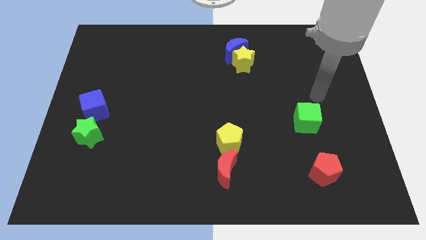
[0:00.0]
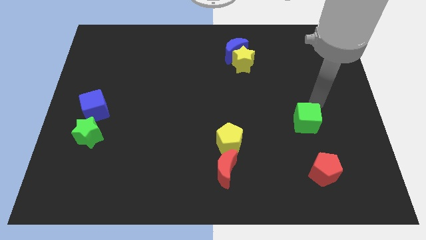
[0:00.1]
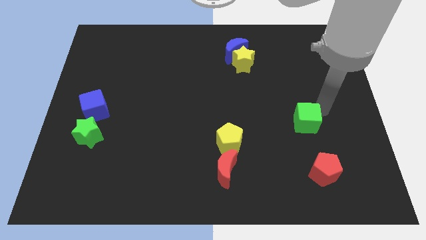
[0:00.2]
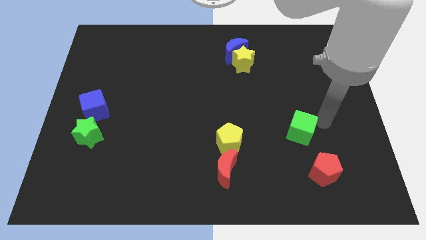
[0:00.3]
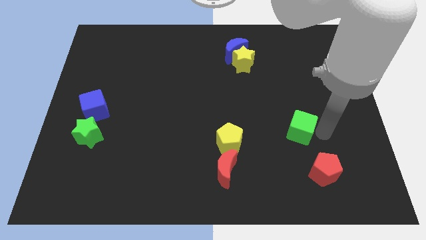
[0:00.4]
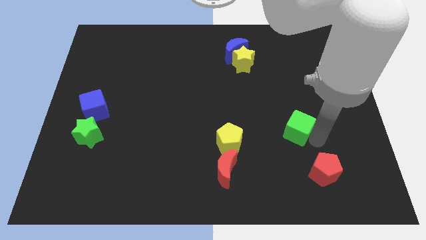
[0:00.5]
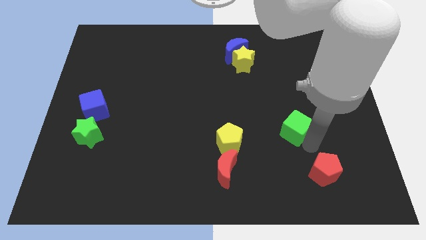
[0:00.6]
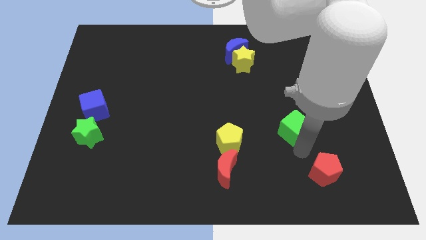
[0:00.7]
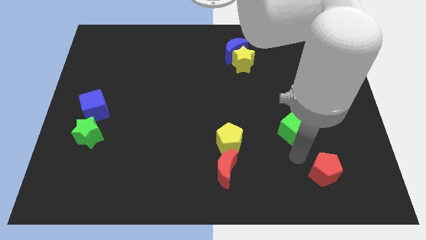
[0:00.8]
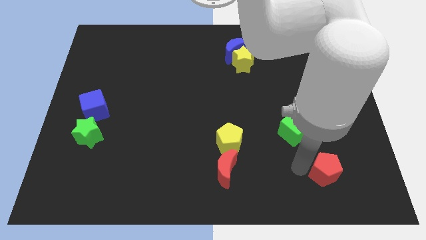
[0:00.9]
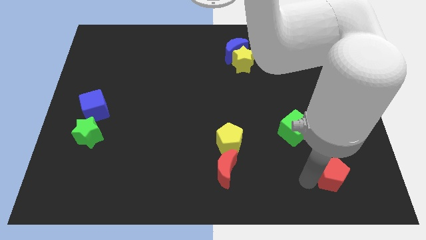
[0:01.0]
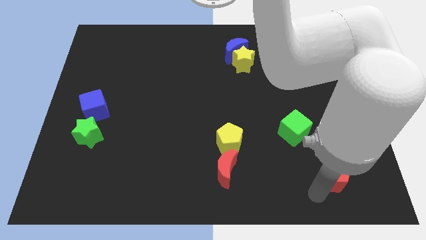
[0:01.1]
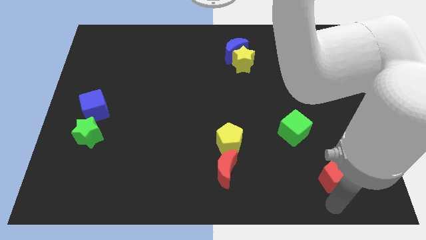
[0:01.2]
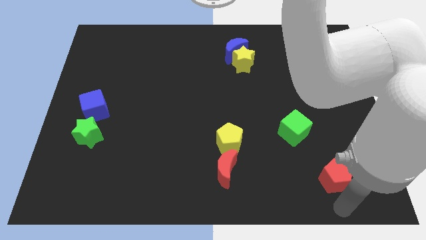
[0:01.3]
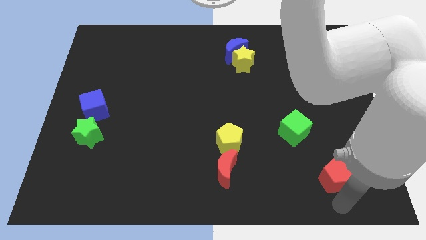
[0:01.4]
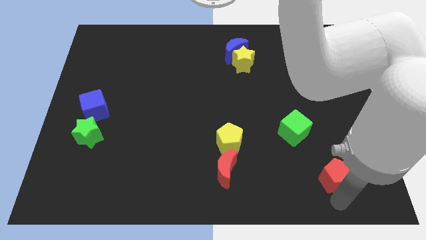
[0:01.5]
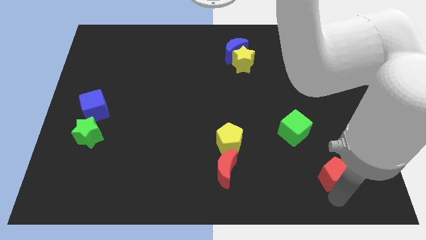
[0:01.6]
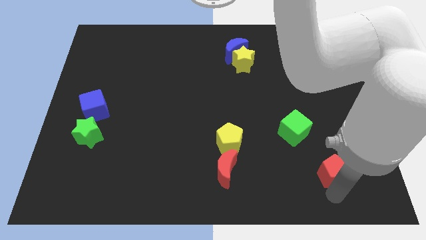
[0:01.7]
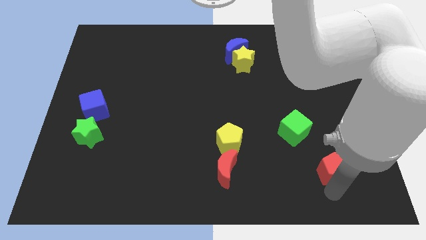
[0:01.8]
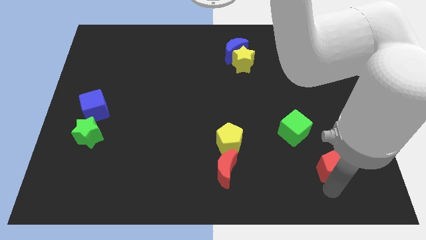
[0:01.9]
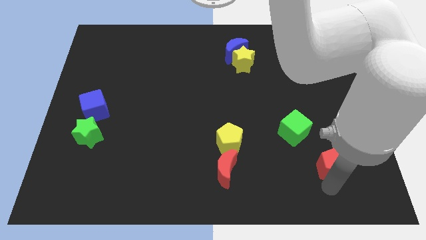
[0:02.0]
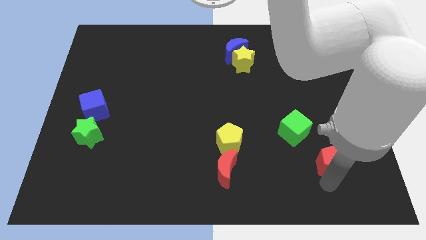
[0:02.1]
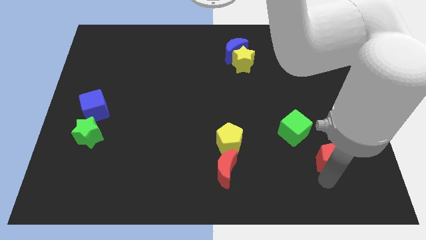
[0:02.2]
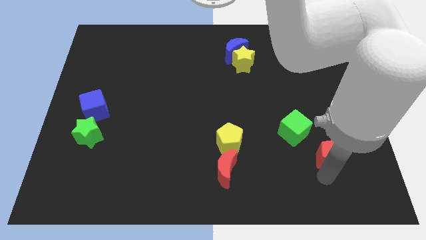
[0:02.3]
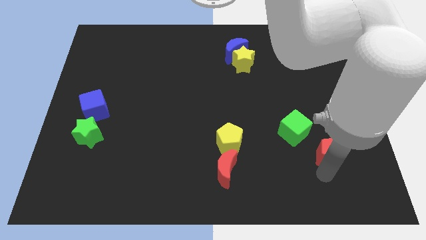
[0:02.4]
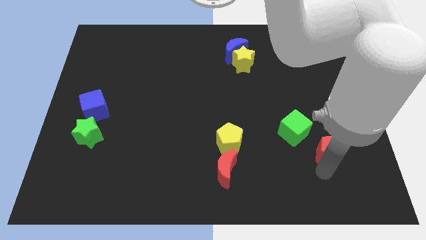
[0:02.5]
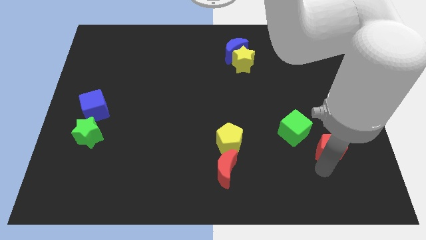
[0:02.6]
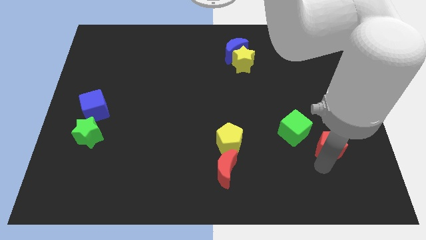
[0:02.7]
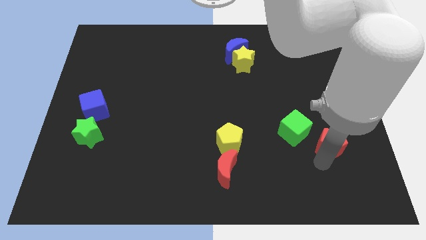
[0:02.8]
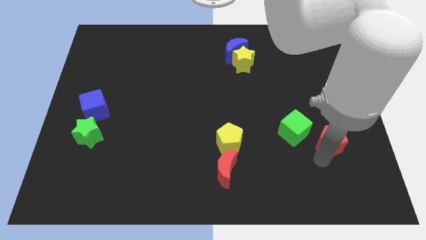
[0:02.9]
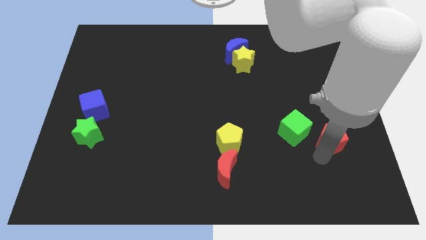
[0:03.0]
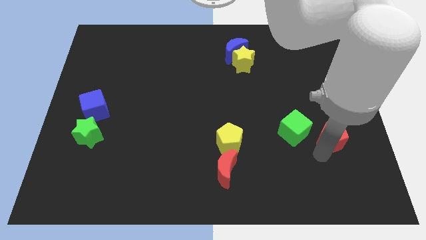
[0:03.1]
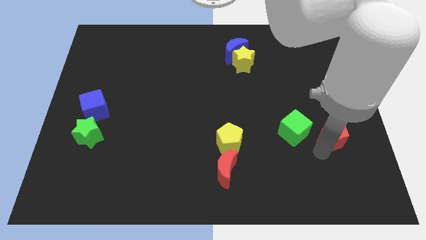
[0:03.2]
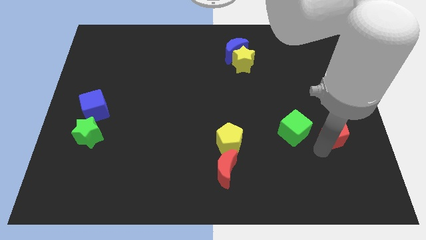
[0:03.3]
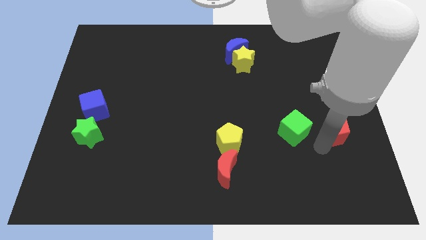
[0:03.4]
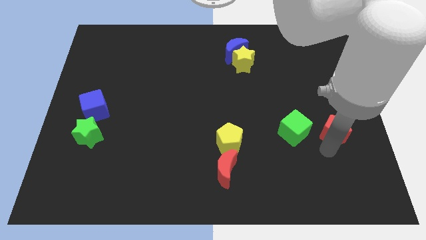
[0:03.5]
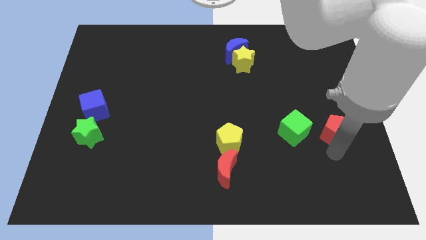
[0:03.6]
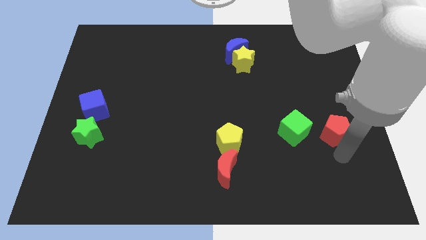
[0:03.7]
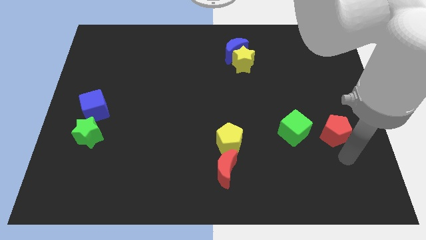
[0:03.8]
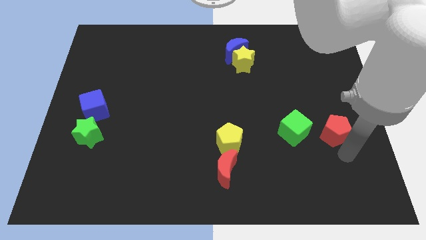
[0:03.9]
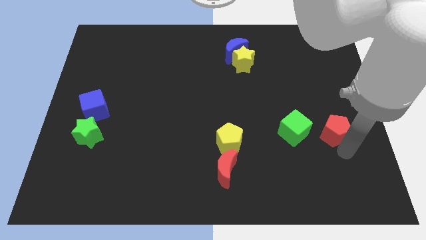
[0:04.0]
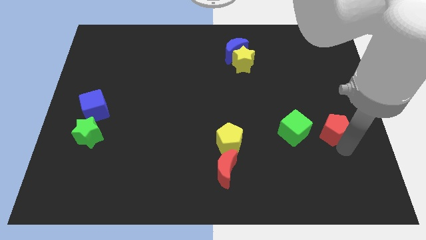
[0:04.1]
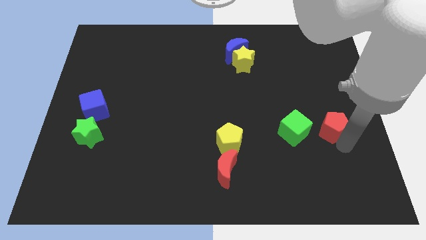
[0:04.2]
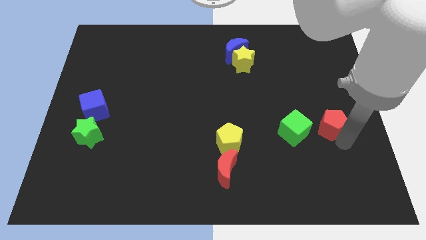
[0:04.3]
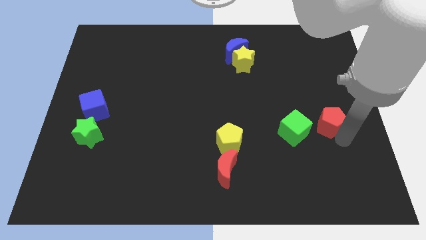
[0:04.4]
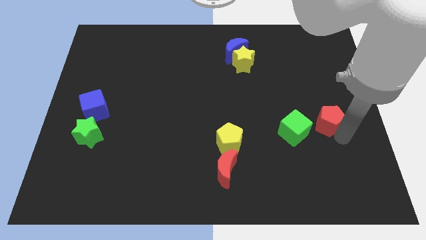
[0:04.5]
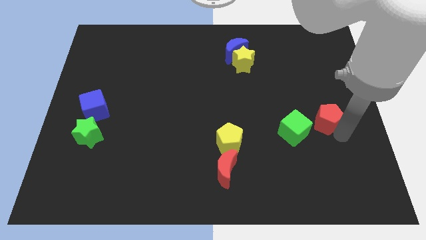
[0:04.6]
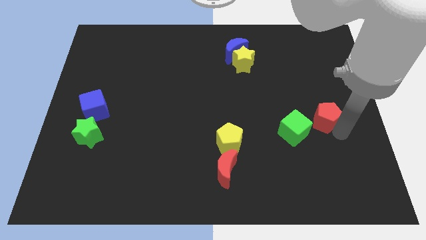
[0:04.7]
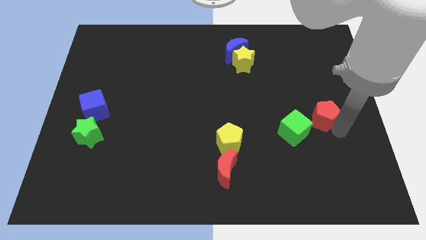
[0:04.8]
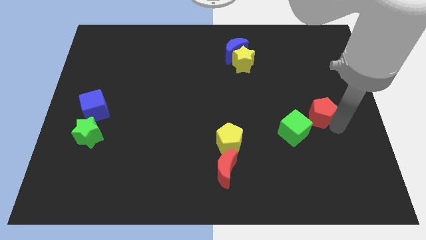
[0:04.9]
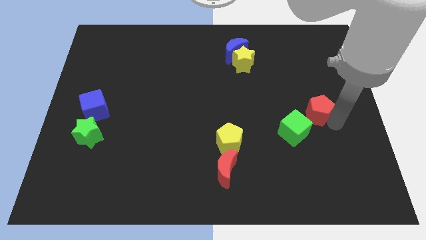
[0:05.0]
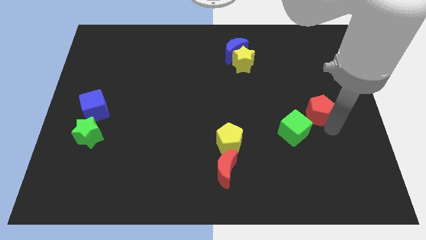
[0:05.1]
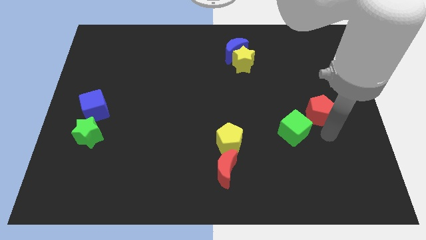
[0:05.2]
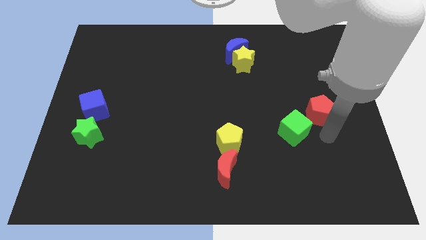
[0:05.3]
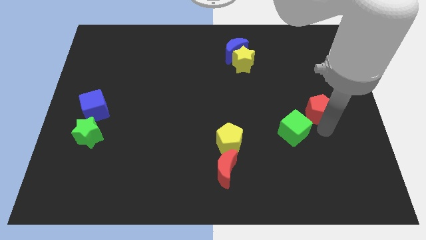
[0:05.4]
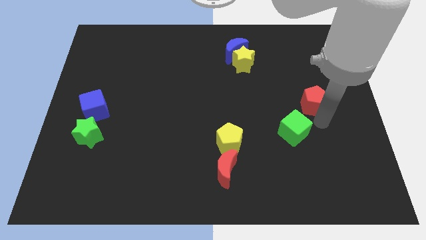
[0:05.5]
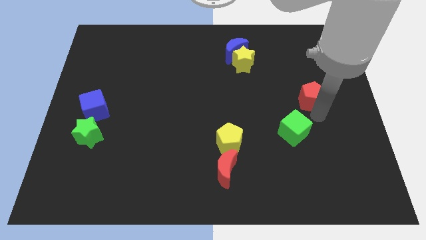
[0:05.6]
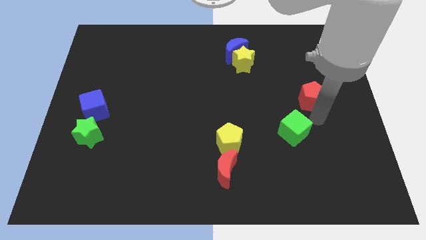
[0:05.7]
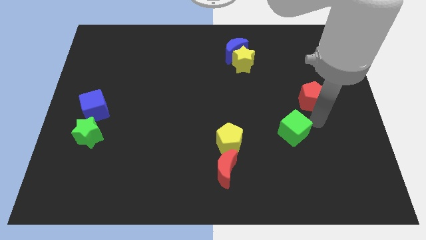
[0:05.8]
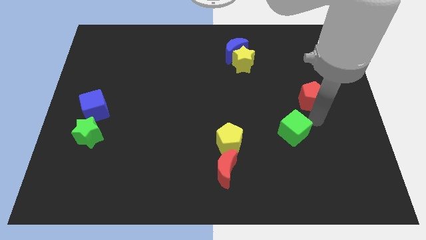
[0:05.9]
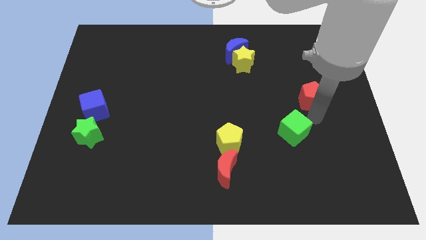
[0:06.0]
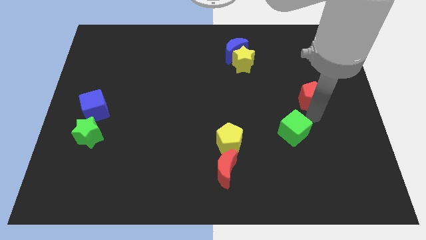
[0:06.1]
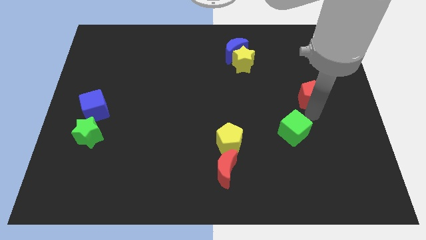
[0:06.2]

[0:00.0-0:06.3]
push the red pentagon upwards

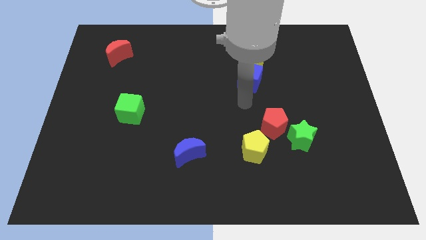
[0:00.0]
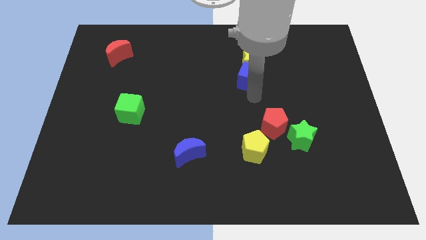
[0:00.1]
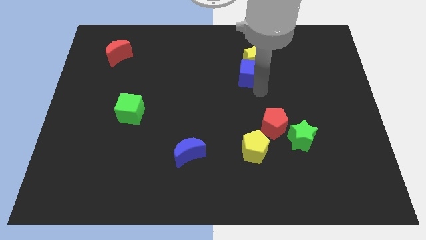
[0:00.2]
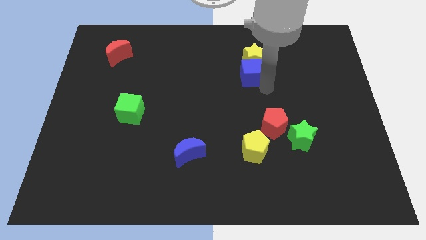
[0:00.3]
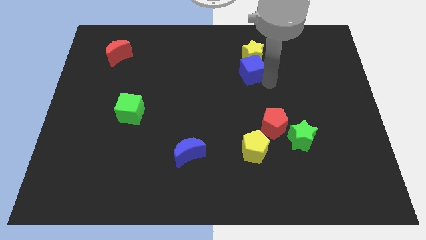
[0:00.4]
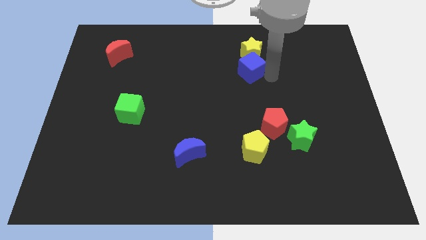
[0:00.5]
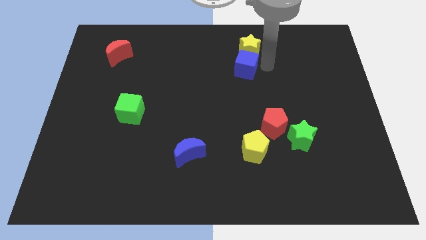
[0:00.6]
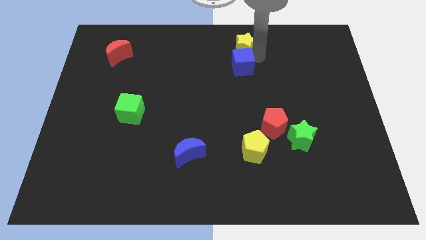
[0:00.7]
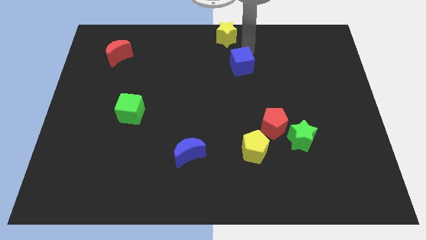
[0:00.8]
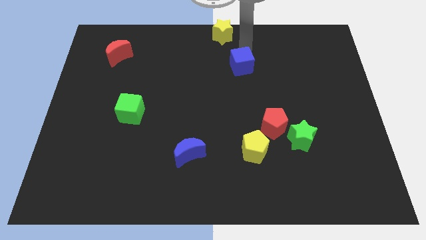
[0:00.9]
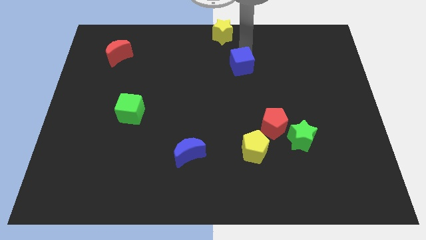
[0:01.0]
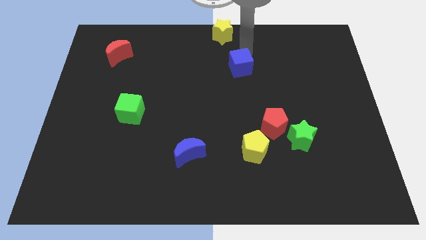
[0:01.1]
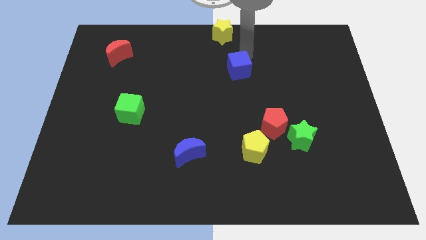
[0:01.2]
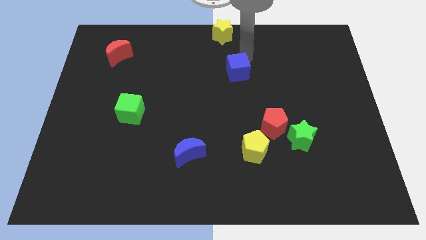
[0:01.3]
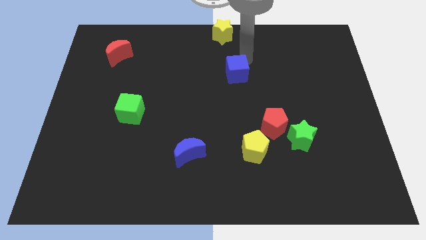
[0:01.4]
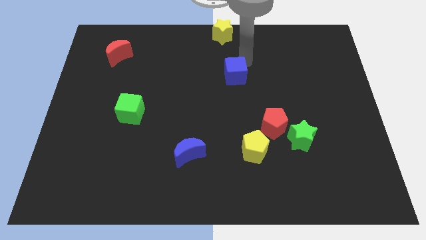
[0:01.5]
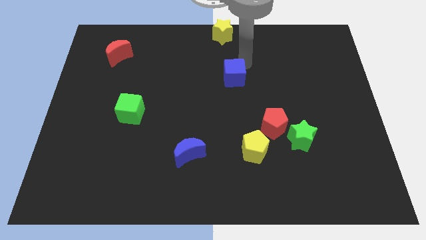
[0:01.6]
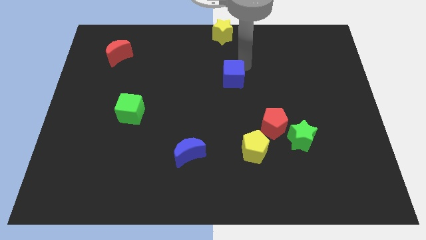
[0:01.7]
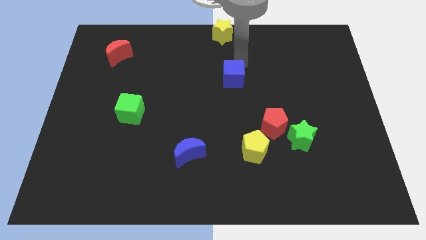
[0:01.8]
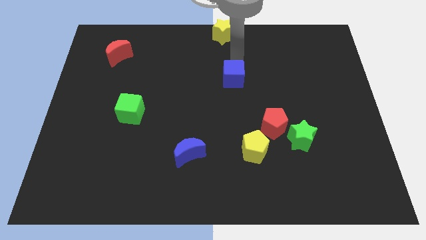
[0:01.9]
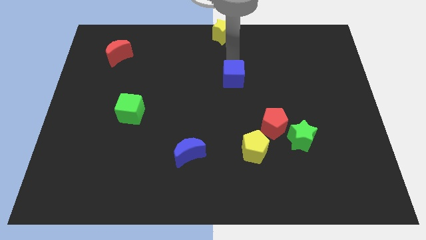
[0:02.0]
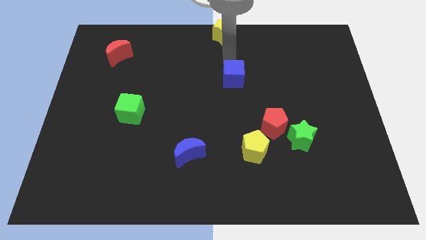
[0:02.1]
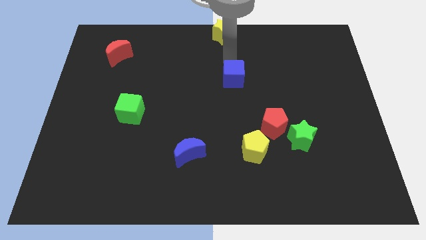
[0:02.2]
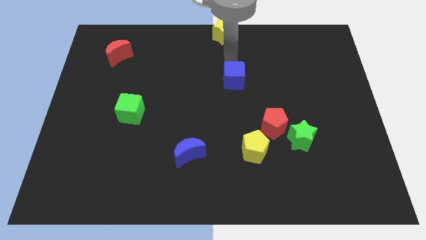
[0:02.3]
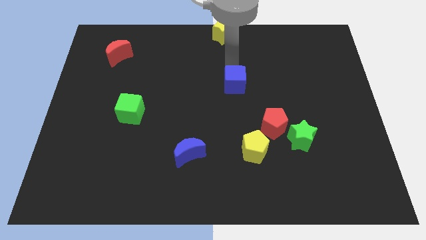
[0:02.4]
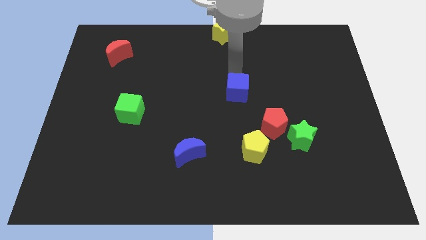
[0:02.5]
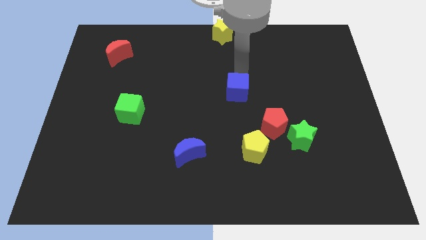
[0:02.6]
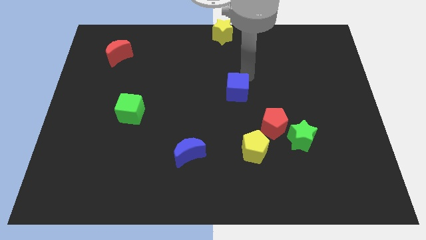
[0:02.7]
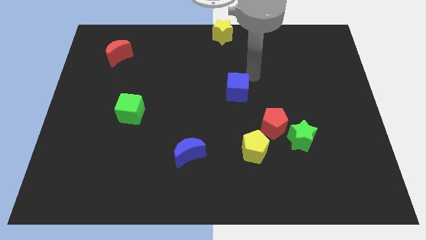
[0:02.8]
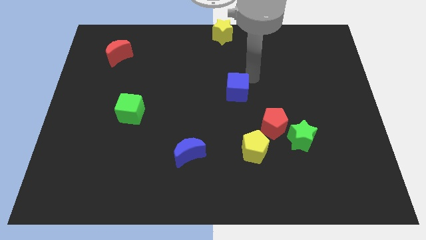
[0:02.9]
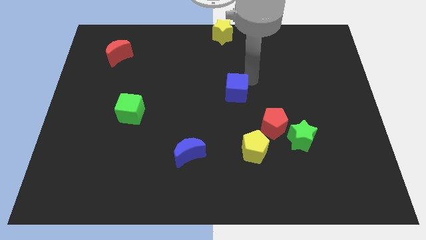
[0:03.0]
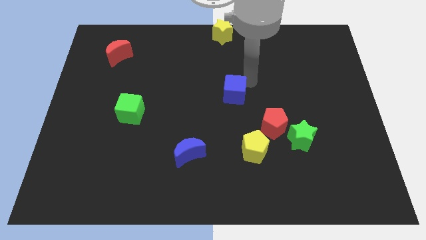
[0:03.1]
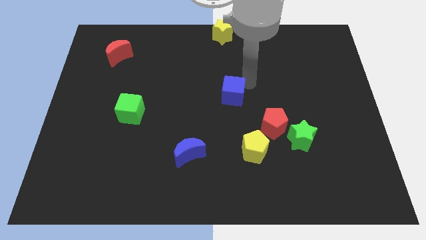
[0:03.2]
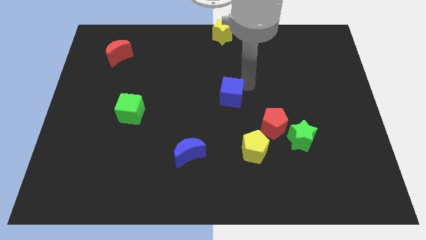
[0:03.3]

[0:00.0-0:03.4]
move the blue cube down and left a little
